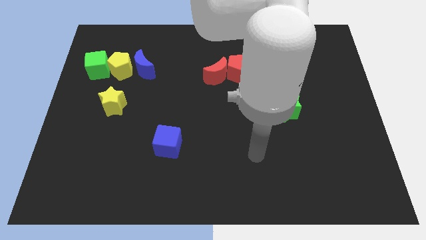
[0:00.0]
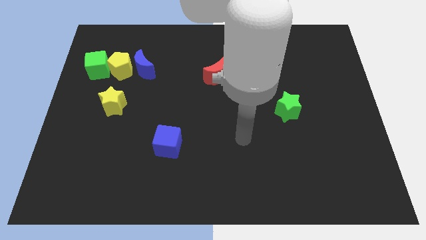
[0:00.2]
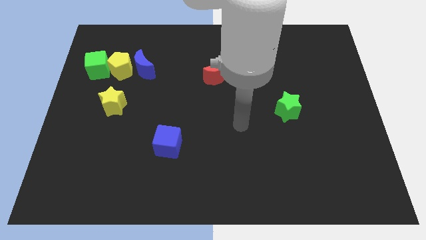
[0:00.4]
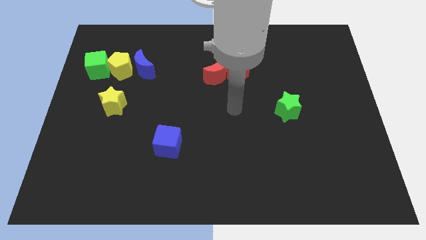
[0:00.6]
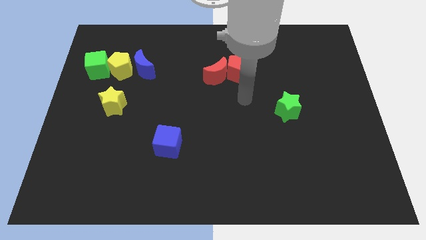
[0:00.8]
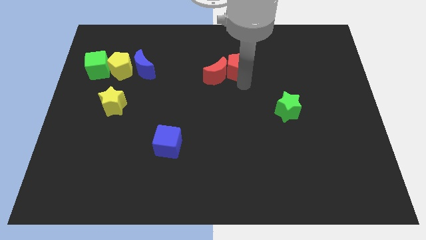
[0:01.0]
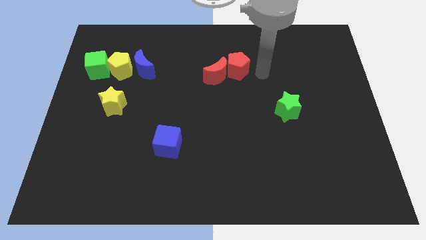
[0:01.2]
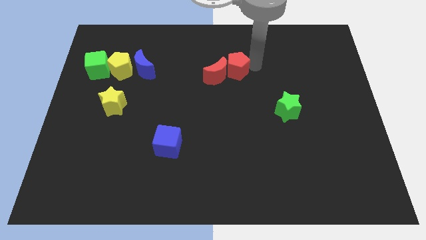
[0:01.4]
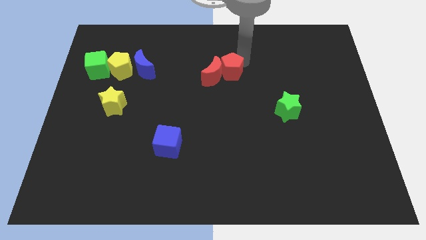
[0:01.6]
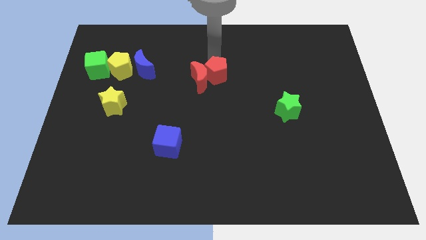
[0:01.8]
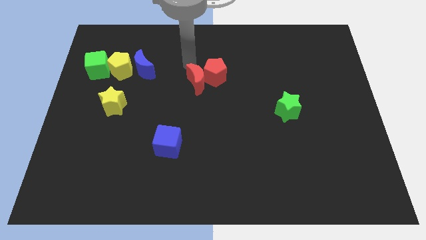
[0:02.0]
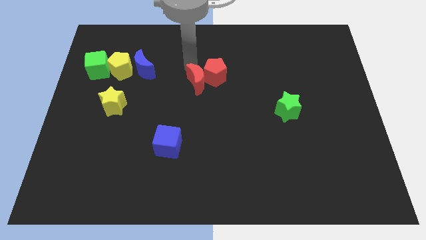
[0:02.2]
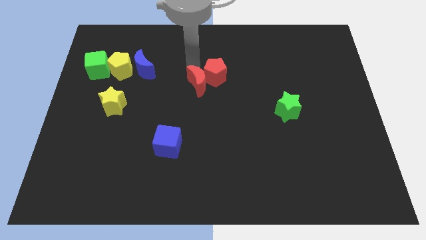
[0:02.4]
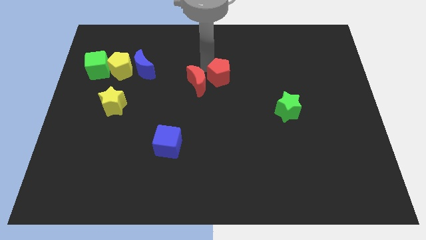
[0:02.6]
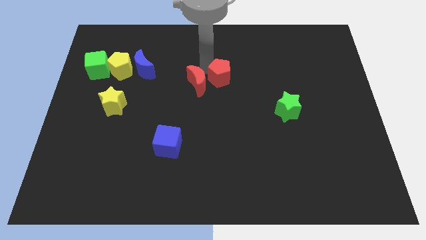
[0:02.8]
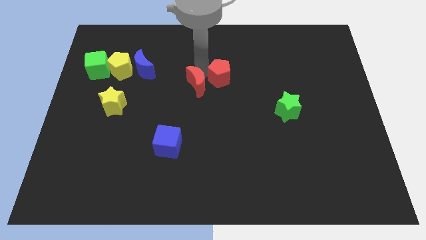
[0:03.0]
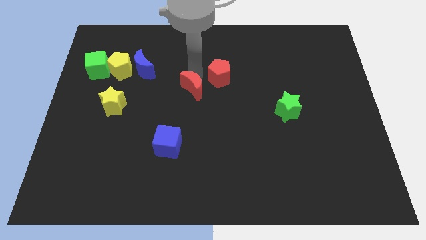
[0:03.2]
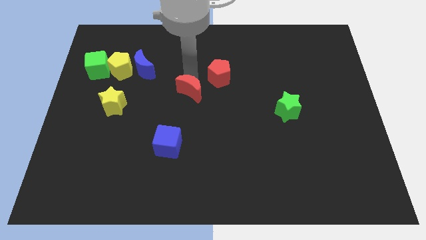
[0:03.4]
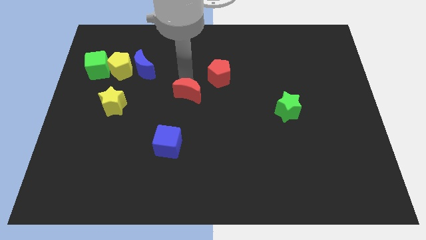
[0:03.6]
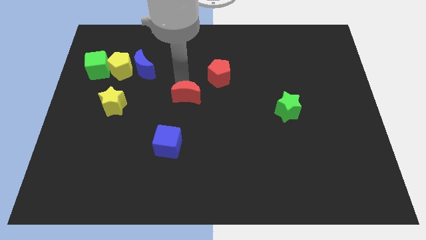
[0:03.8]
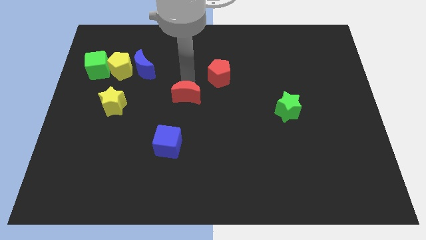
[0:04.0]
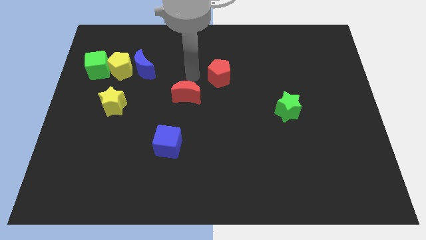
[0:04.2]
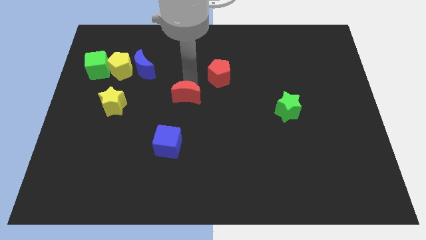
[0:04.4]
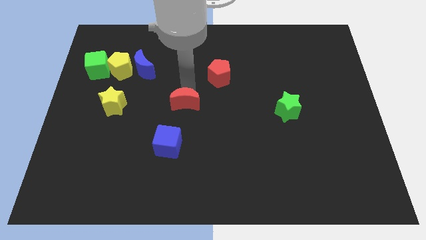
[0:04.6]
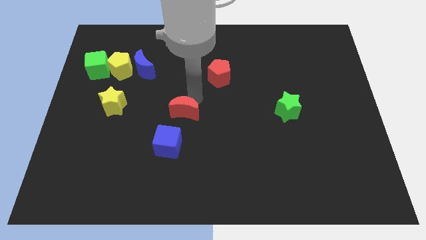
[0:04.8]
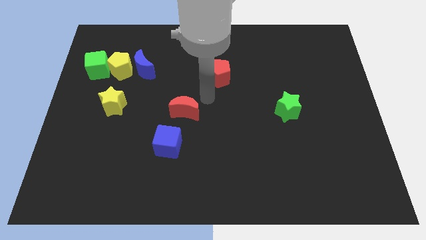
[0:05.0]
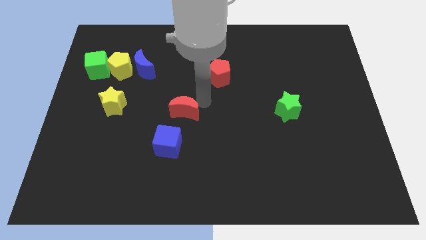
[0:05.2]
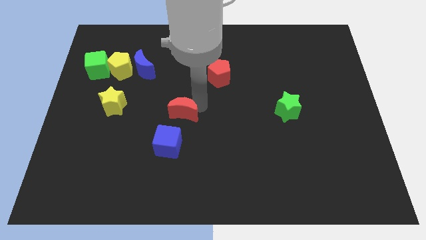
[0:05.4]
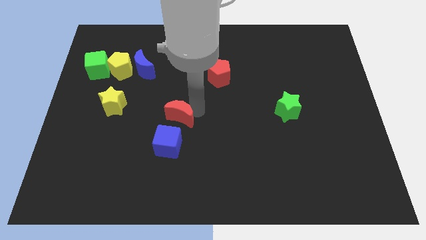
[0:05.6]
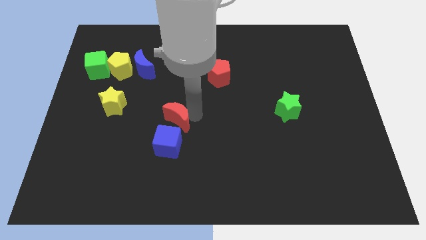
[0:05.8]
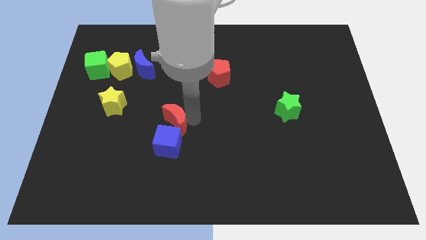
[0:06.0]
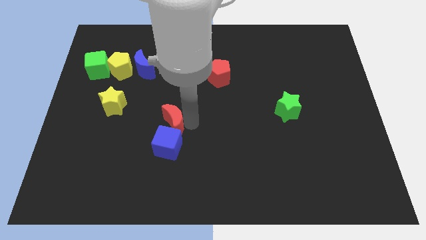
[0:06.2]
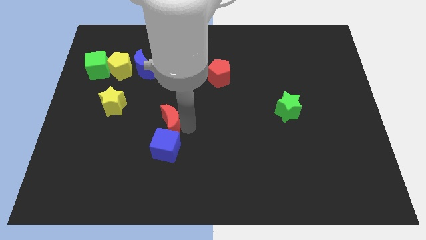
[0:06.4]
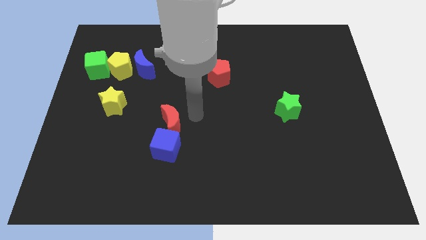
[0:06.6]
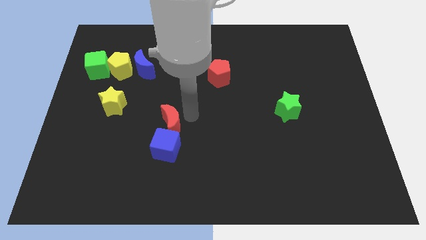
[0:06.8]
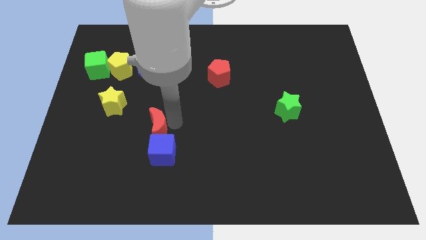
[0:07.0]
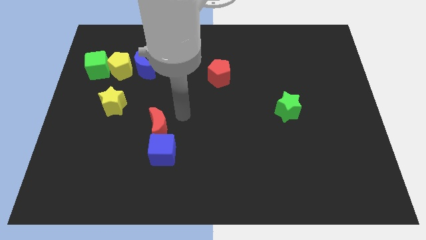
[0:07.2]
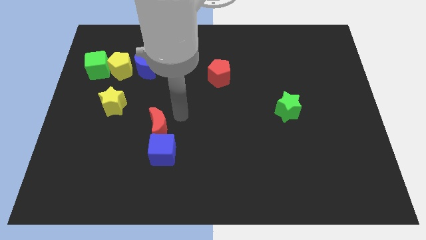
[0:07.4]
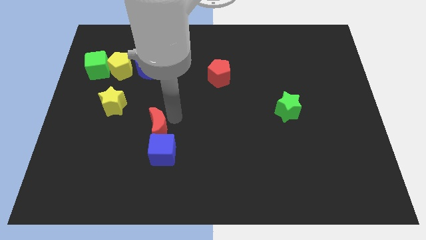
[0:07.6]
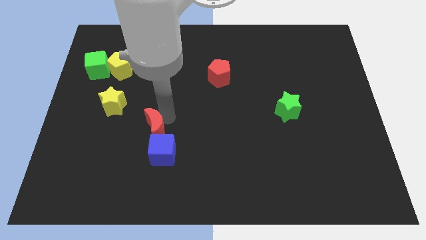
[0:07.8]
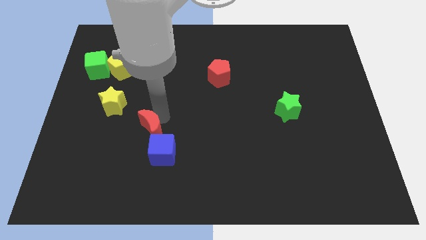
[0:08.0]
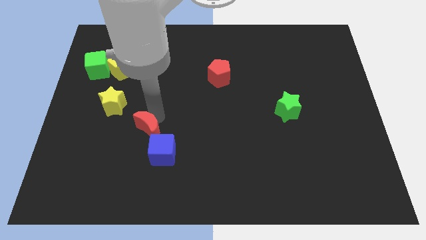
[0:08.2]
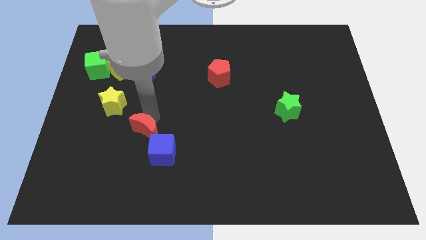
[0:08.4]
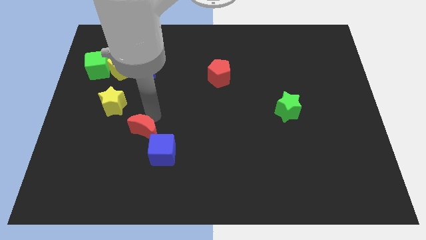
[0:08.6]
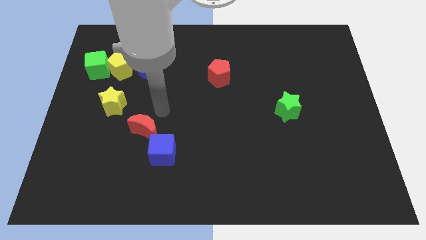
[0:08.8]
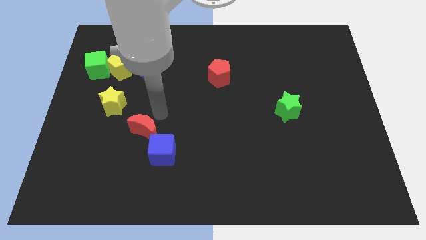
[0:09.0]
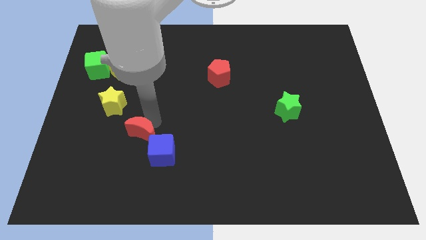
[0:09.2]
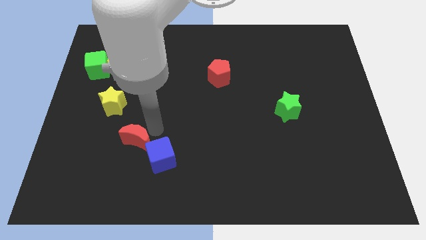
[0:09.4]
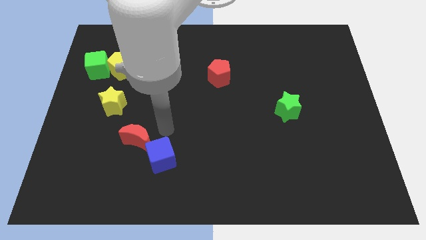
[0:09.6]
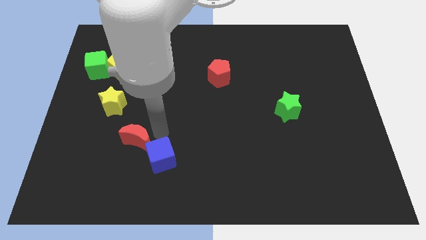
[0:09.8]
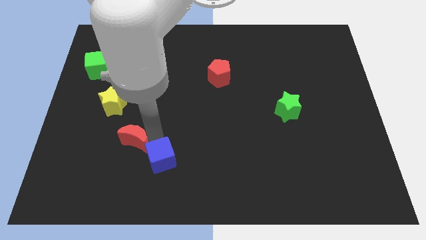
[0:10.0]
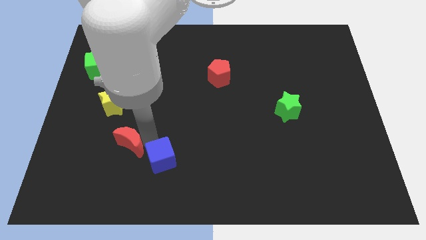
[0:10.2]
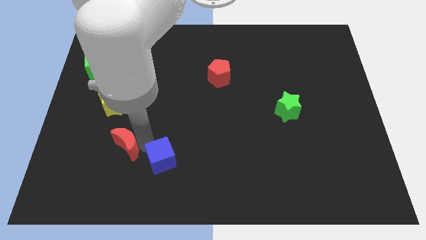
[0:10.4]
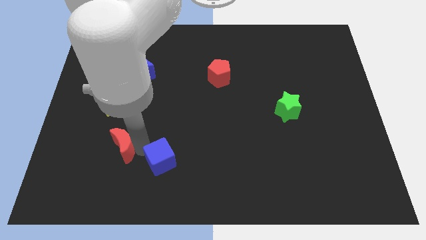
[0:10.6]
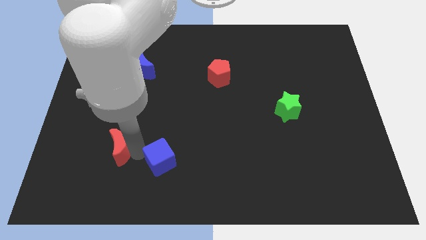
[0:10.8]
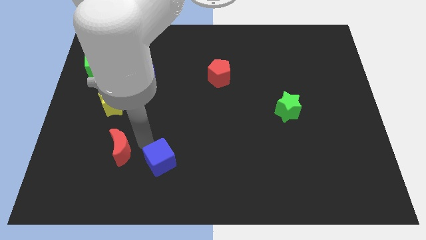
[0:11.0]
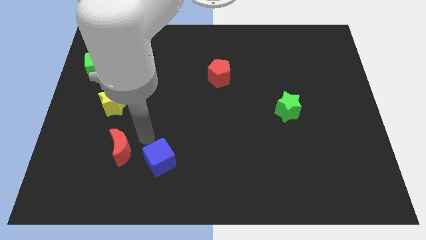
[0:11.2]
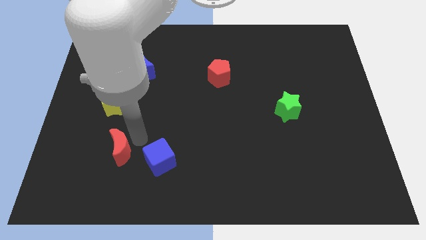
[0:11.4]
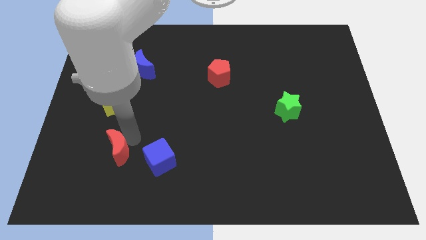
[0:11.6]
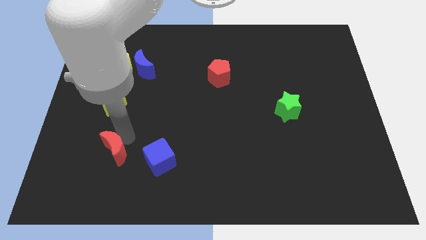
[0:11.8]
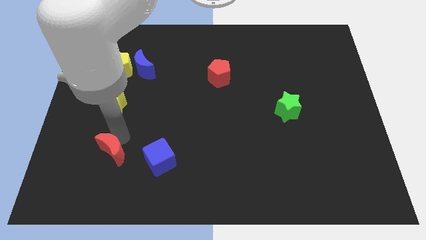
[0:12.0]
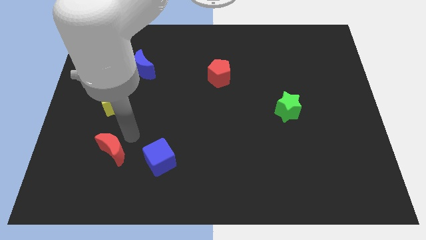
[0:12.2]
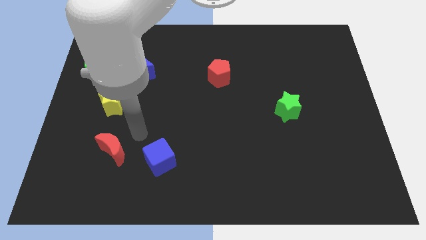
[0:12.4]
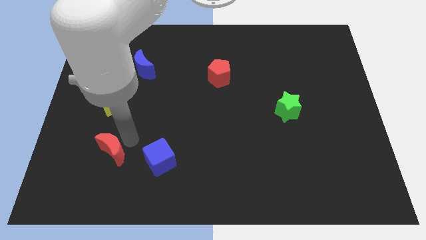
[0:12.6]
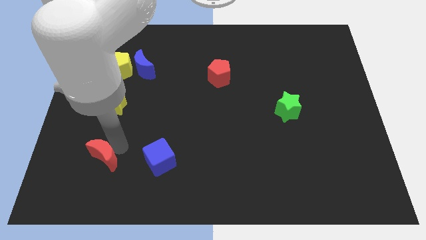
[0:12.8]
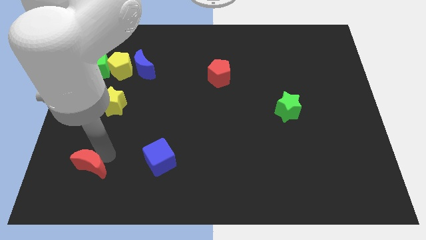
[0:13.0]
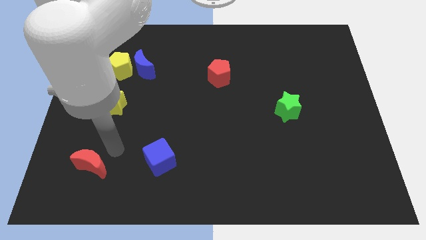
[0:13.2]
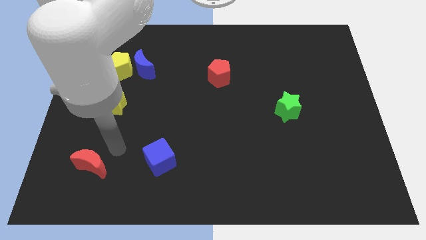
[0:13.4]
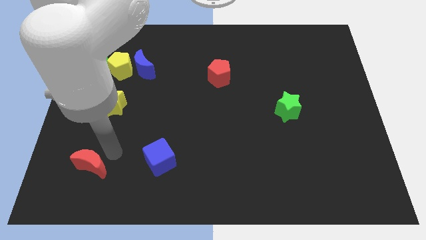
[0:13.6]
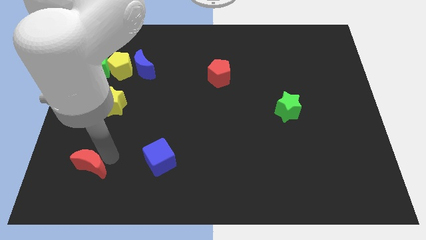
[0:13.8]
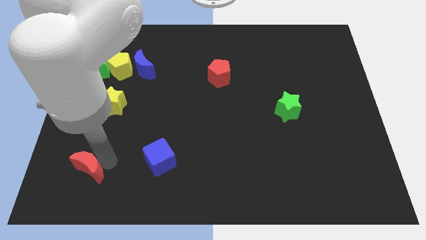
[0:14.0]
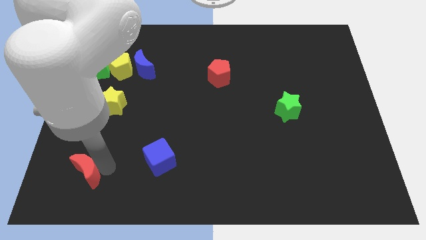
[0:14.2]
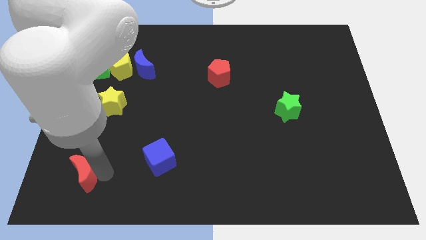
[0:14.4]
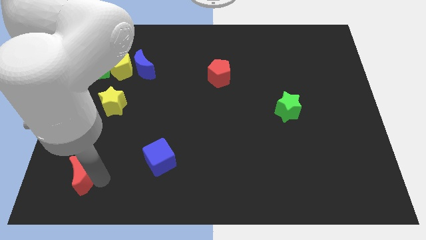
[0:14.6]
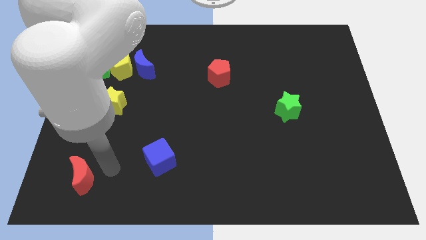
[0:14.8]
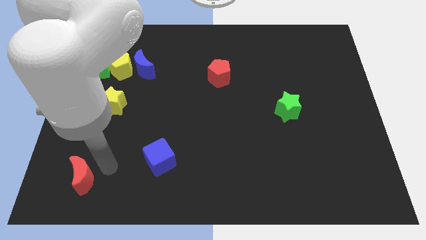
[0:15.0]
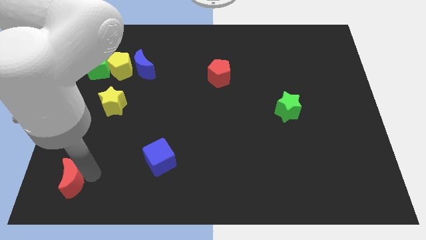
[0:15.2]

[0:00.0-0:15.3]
move the red moon to the bottom left of the board
